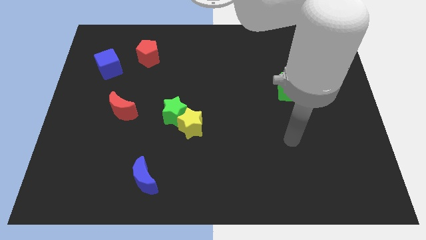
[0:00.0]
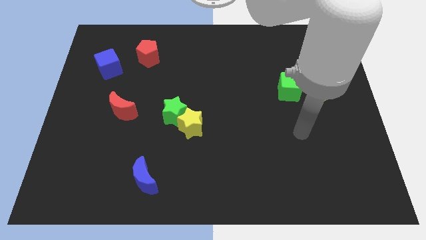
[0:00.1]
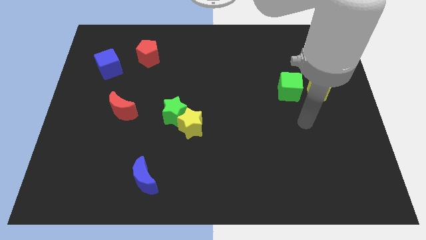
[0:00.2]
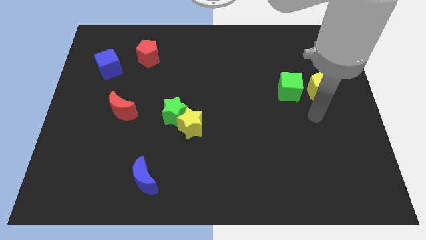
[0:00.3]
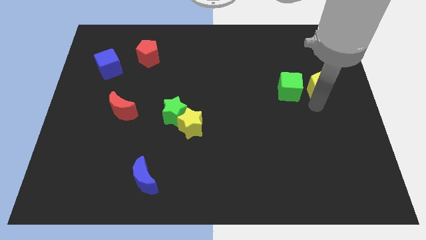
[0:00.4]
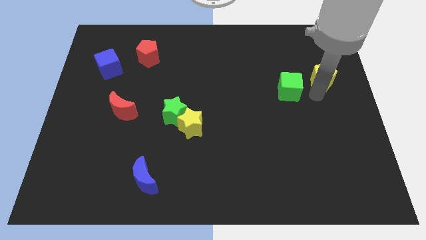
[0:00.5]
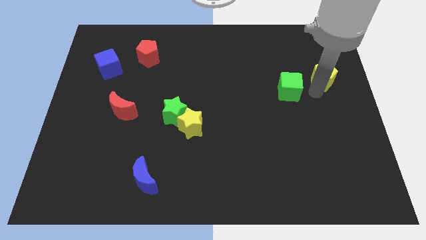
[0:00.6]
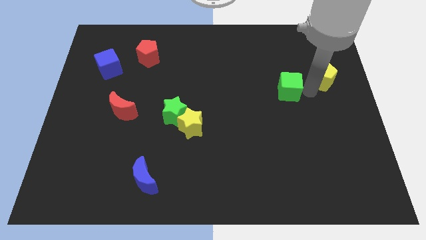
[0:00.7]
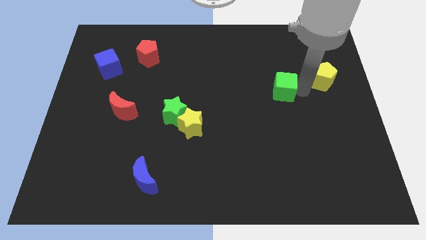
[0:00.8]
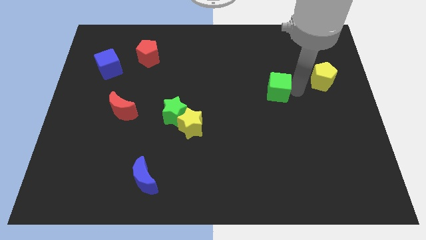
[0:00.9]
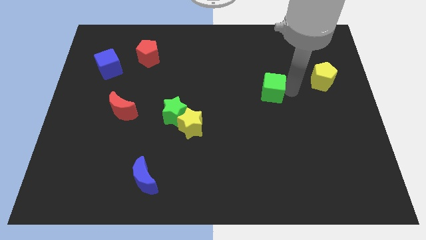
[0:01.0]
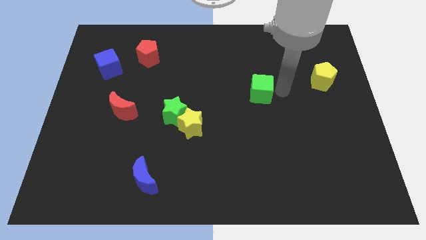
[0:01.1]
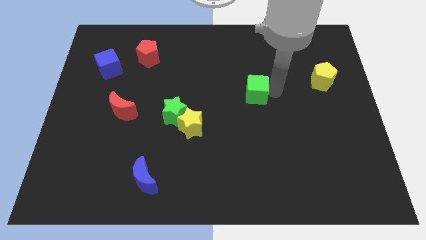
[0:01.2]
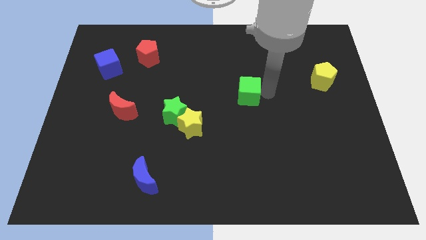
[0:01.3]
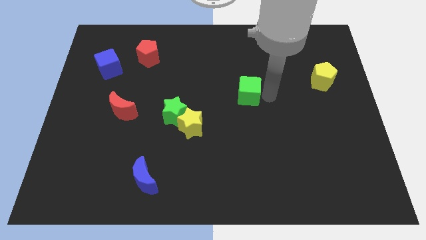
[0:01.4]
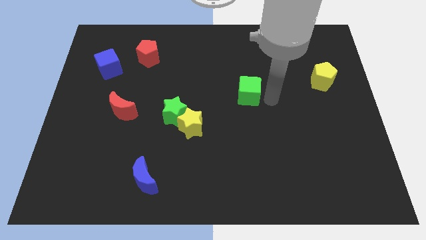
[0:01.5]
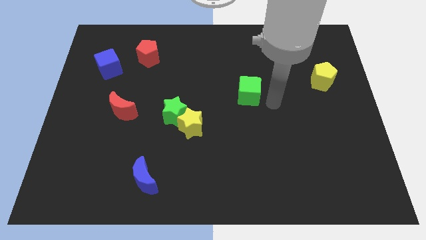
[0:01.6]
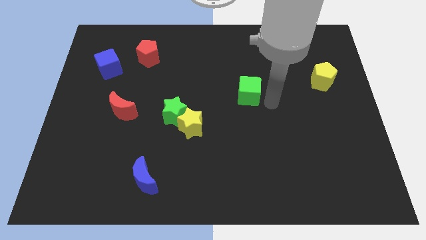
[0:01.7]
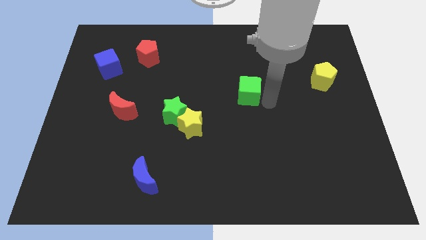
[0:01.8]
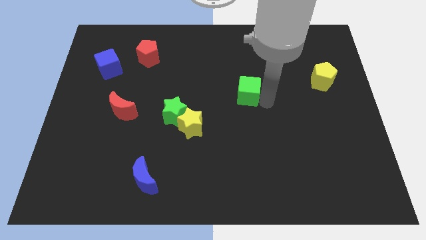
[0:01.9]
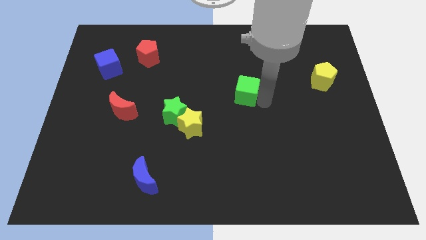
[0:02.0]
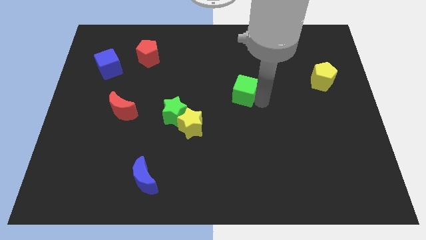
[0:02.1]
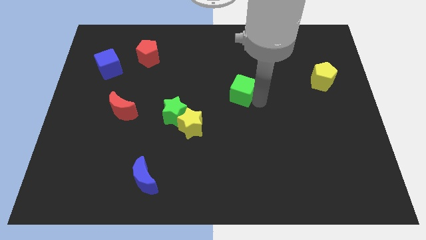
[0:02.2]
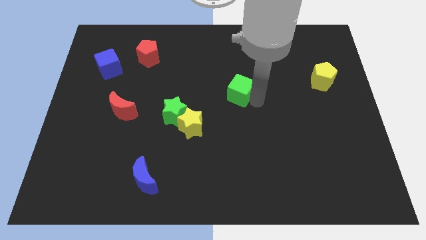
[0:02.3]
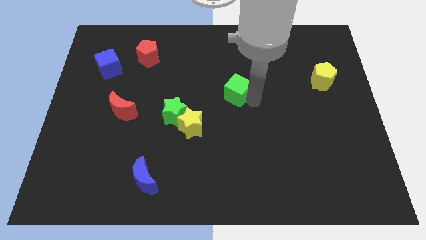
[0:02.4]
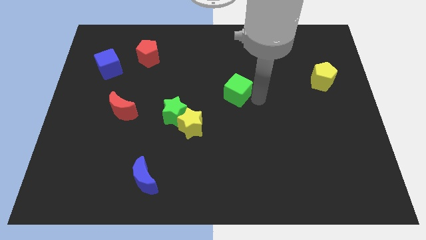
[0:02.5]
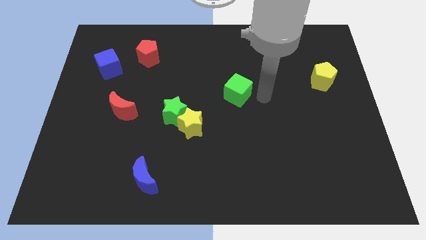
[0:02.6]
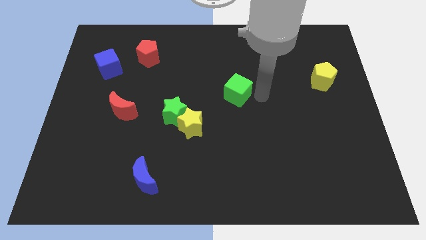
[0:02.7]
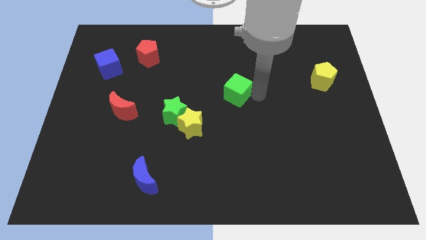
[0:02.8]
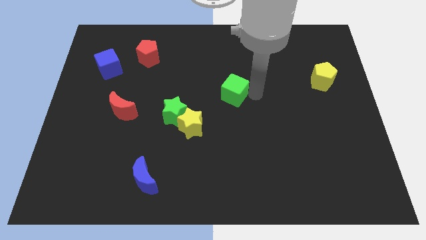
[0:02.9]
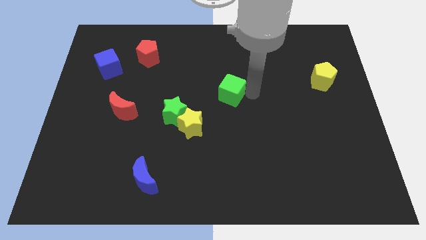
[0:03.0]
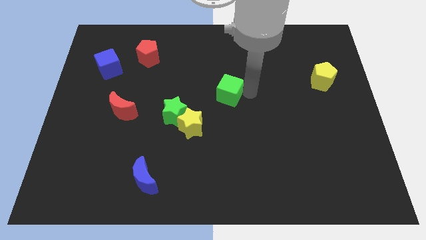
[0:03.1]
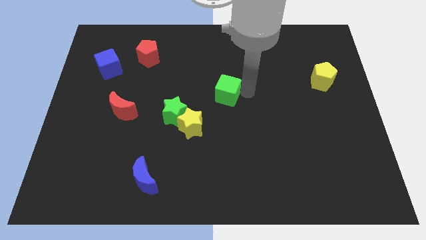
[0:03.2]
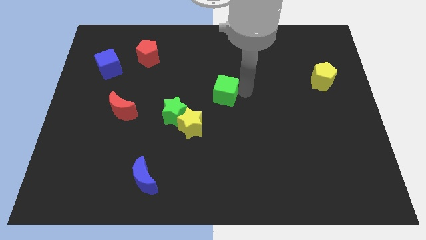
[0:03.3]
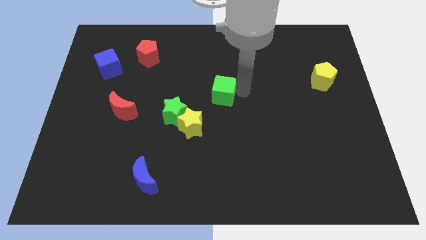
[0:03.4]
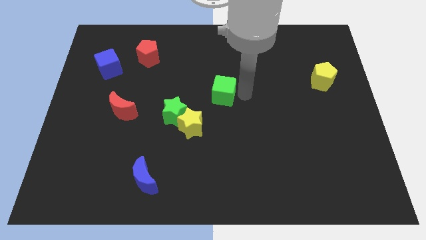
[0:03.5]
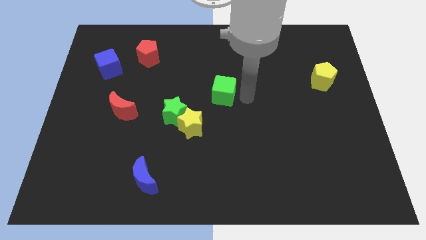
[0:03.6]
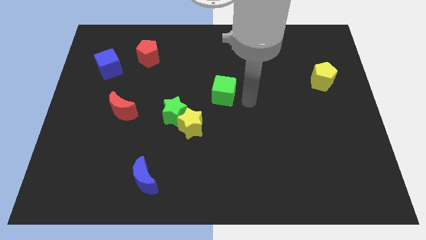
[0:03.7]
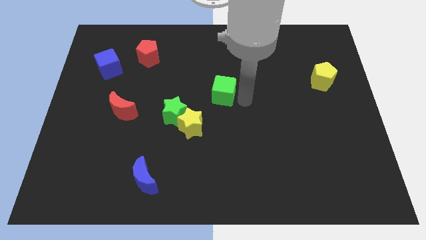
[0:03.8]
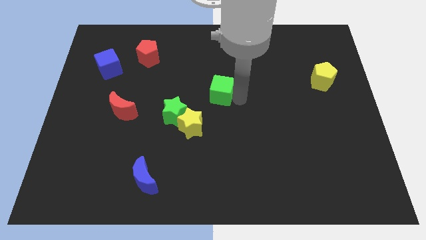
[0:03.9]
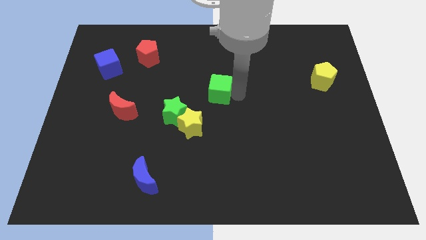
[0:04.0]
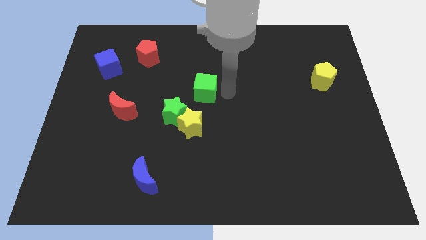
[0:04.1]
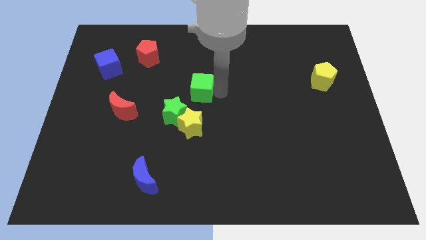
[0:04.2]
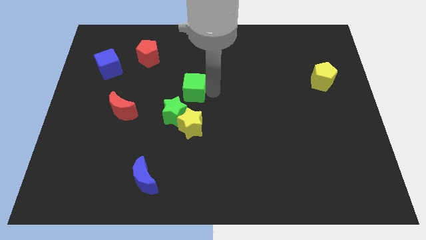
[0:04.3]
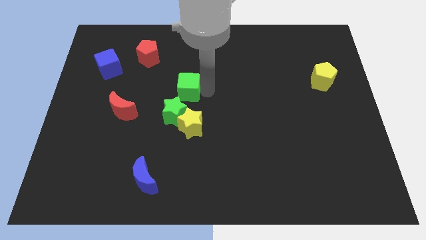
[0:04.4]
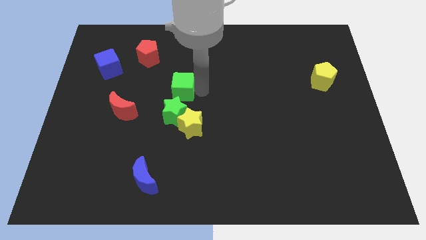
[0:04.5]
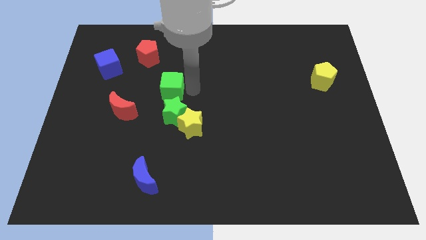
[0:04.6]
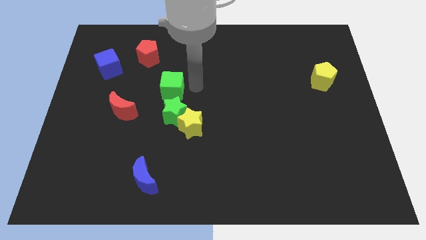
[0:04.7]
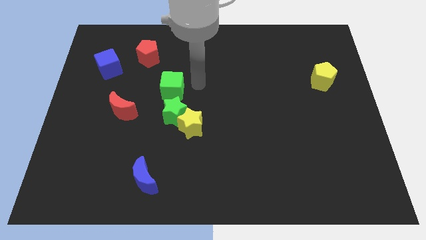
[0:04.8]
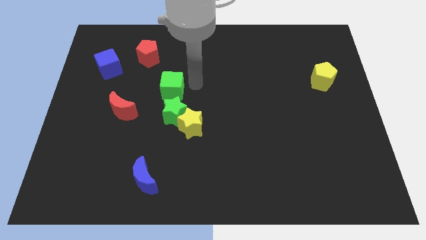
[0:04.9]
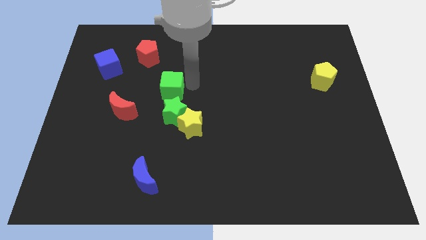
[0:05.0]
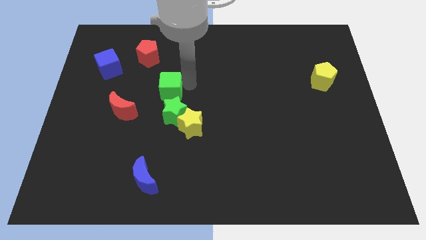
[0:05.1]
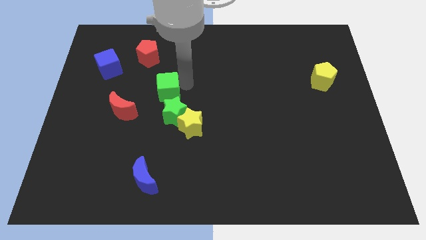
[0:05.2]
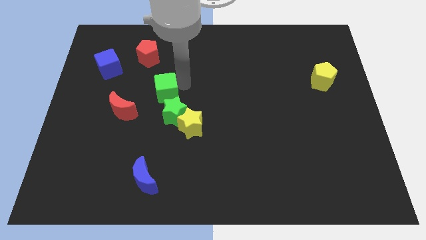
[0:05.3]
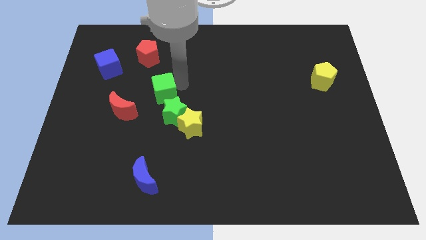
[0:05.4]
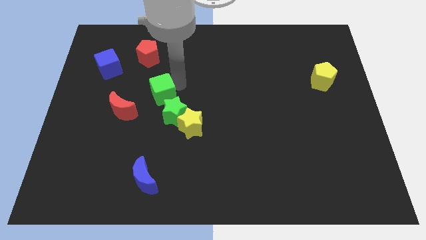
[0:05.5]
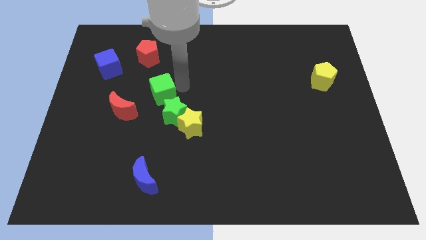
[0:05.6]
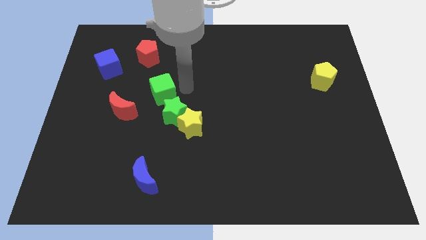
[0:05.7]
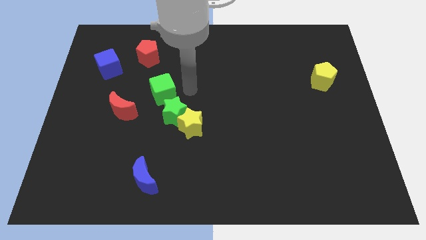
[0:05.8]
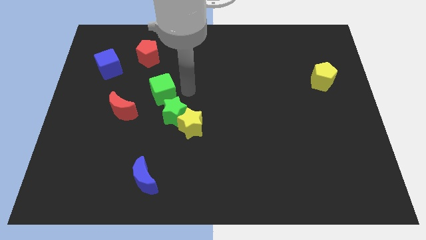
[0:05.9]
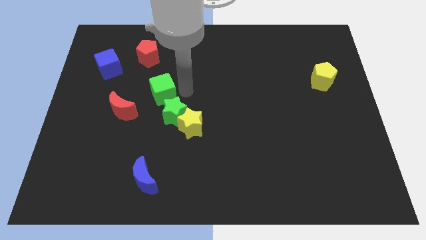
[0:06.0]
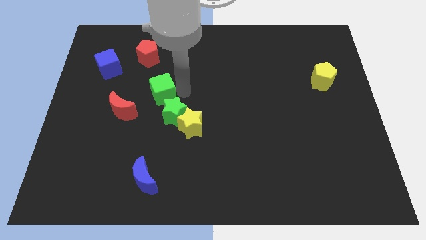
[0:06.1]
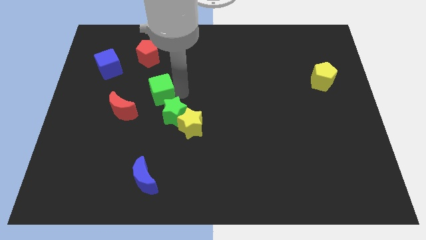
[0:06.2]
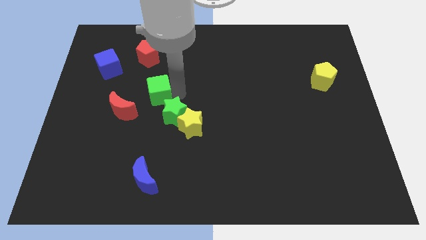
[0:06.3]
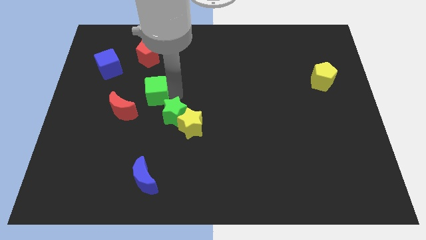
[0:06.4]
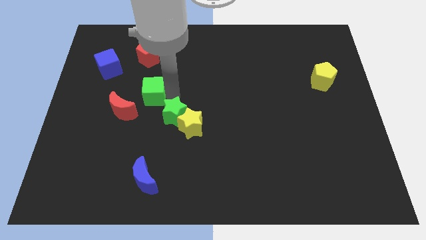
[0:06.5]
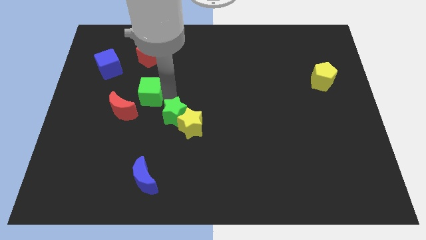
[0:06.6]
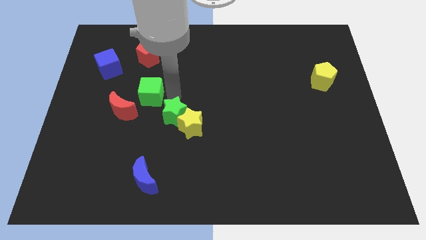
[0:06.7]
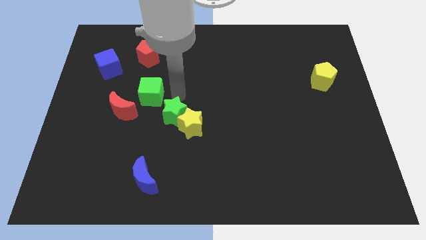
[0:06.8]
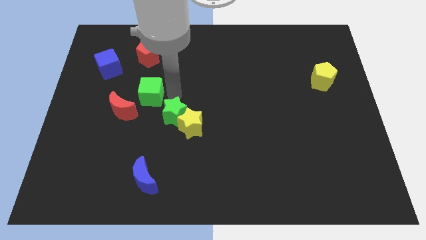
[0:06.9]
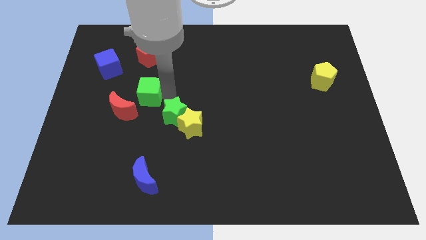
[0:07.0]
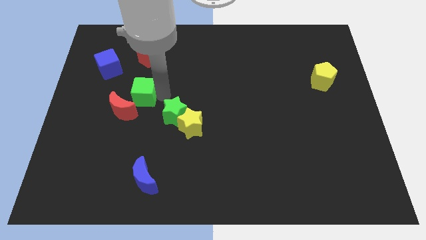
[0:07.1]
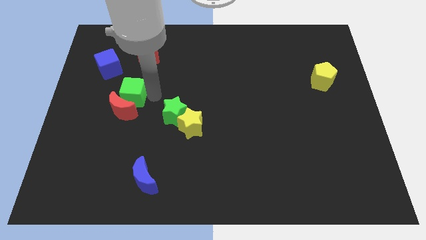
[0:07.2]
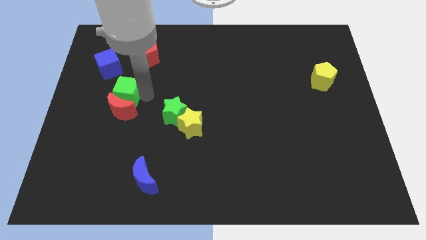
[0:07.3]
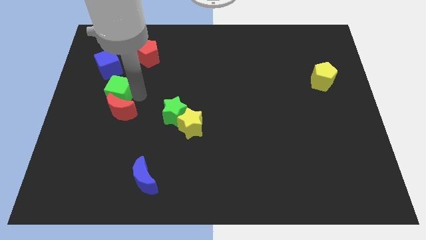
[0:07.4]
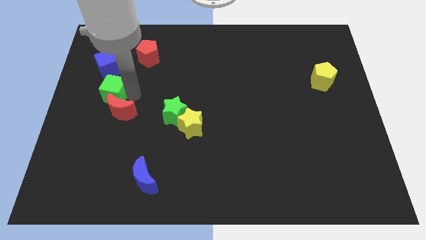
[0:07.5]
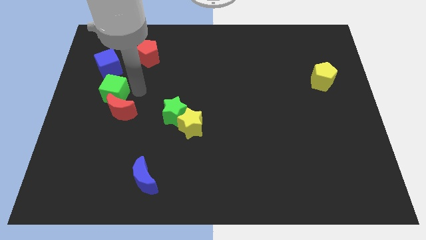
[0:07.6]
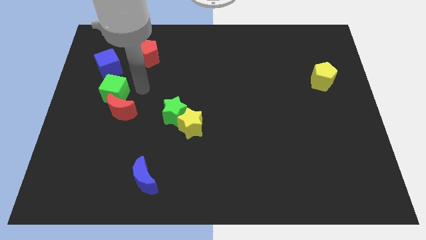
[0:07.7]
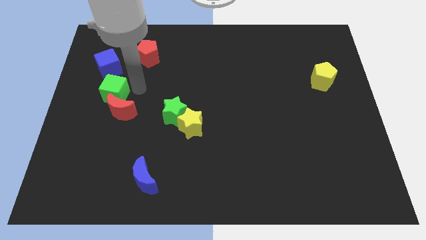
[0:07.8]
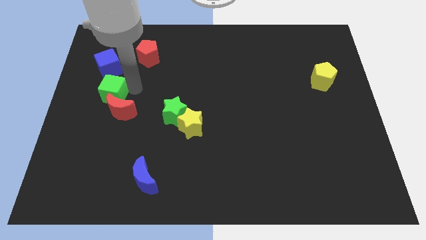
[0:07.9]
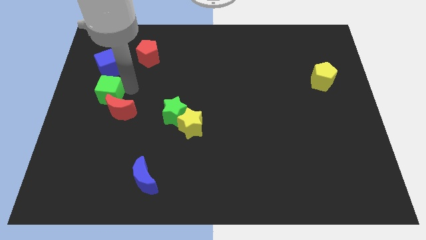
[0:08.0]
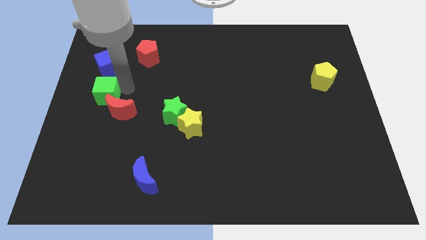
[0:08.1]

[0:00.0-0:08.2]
push the green cube to the left side of the board
